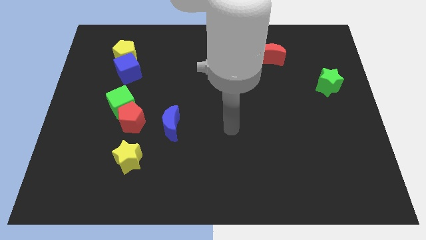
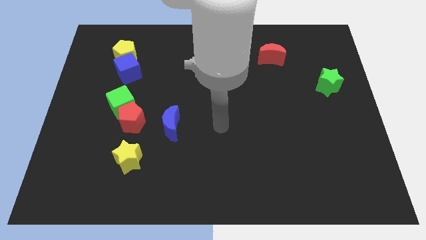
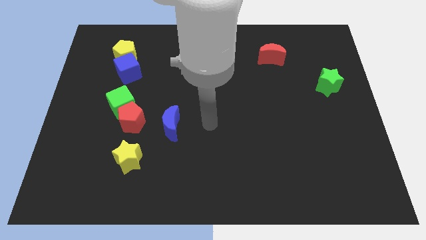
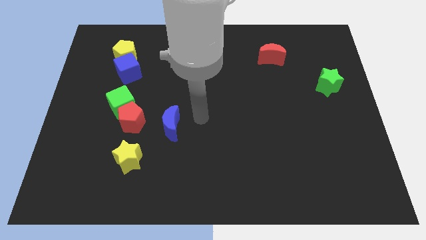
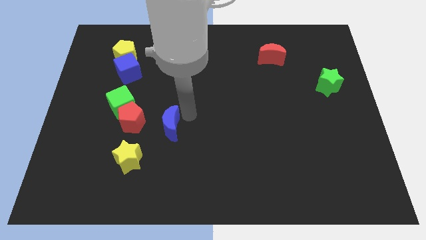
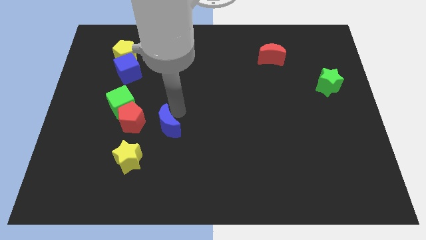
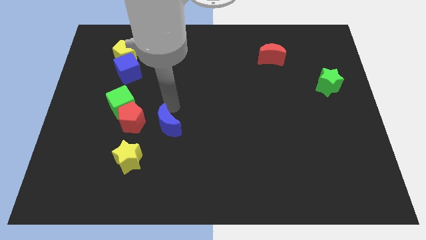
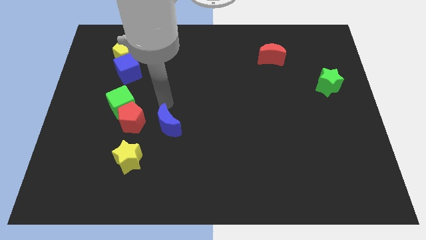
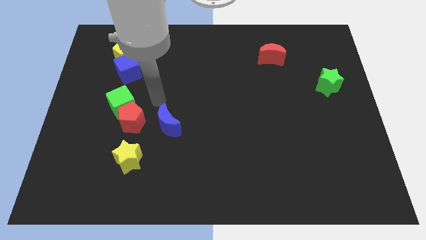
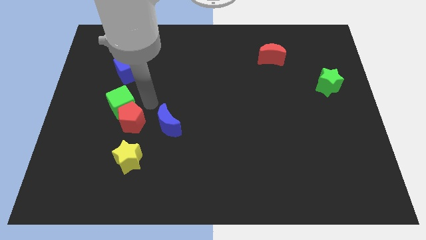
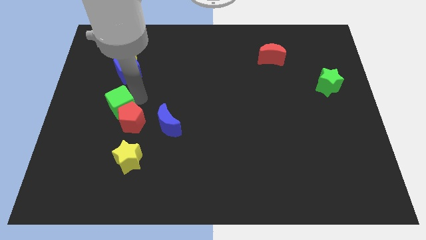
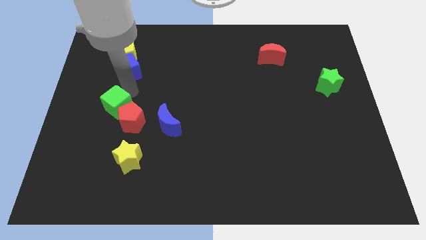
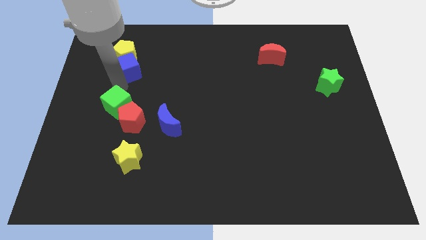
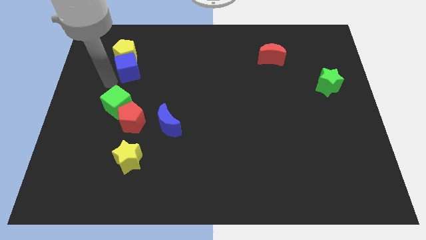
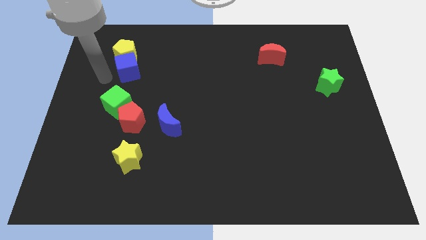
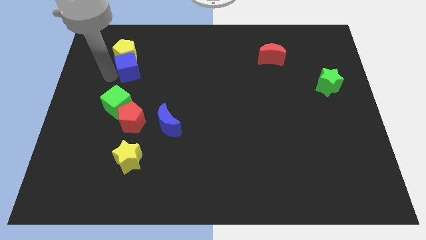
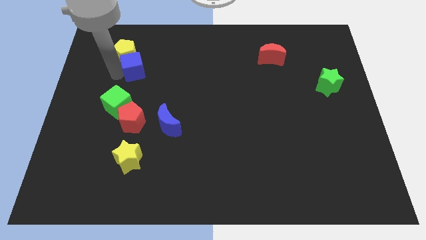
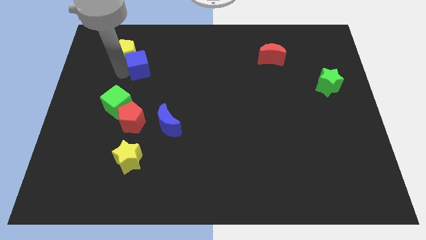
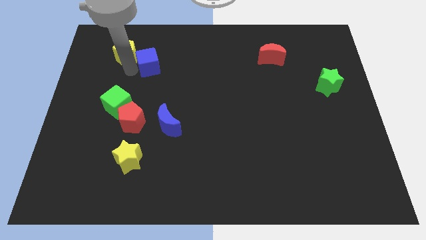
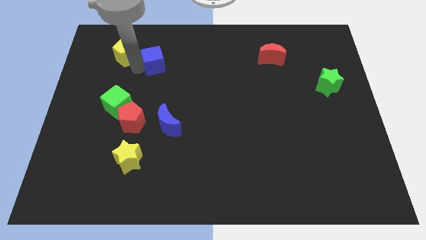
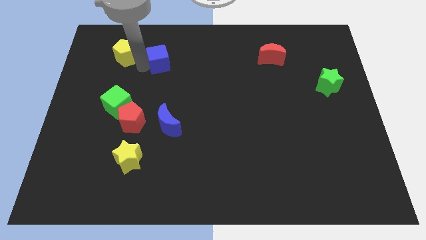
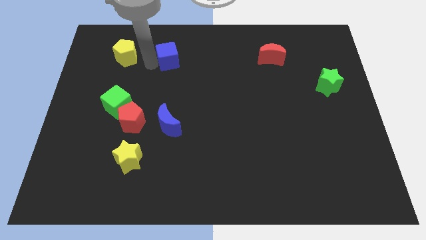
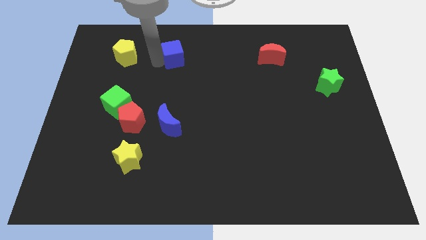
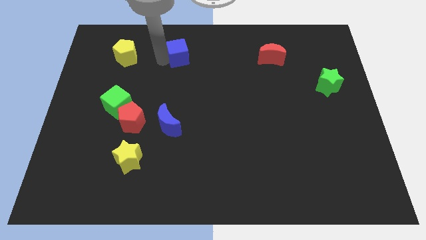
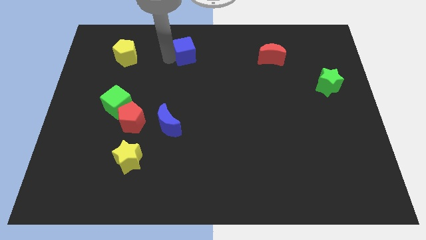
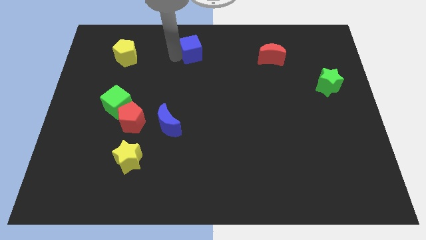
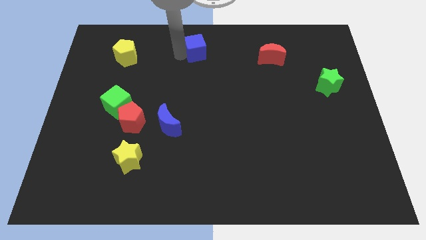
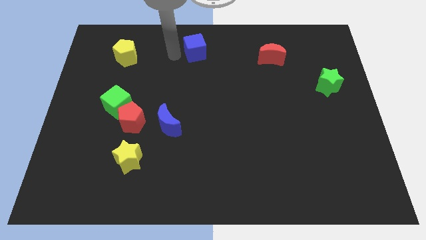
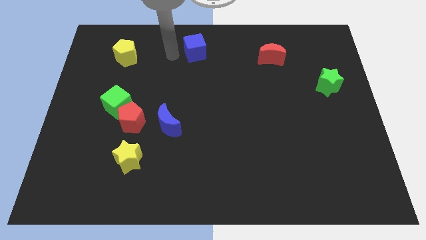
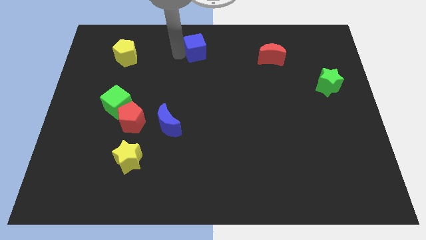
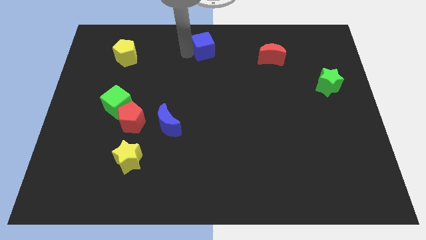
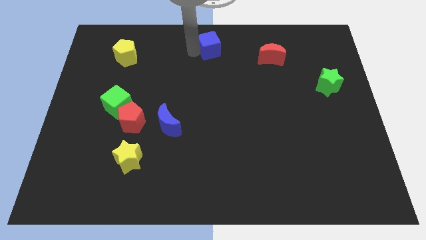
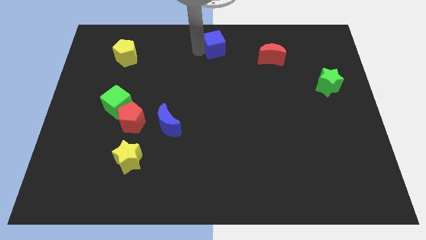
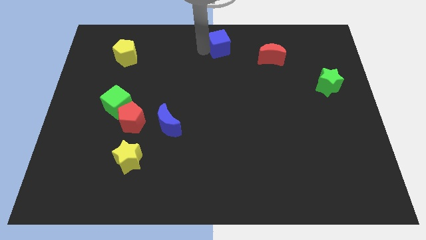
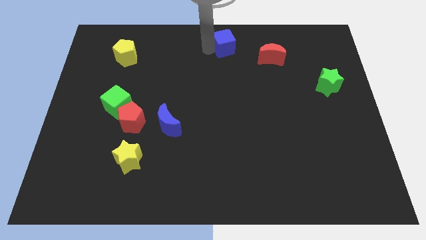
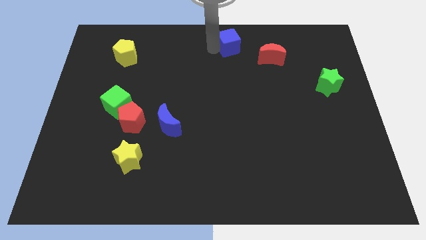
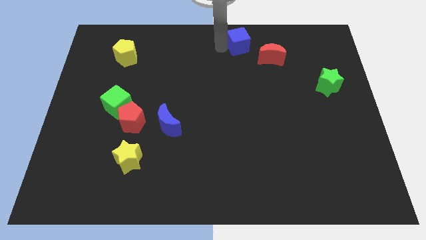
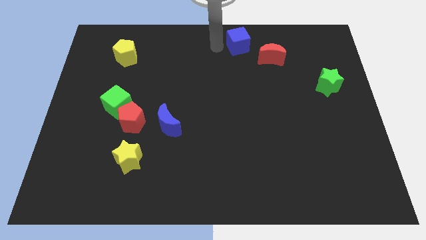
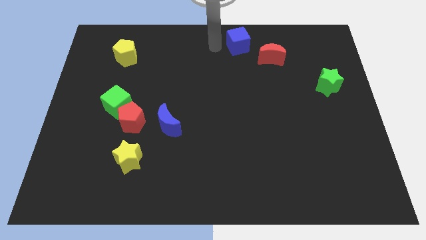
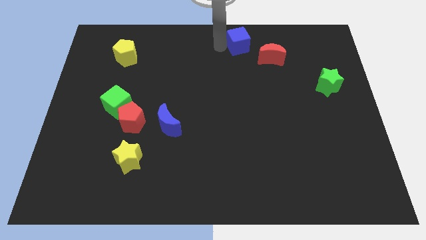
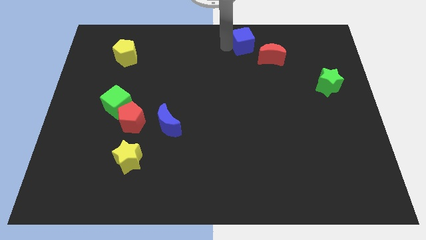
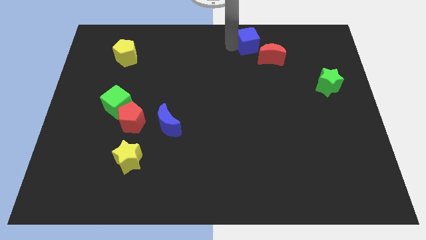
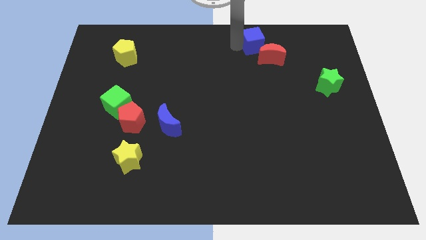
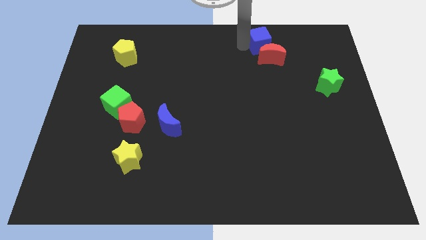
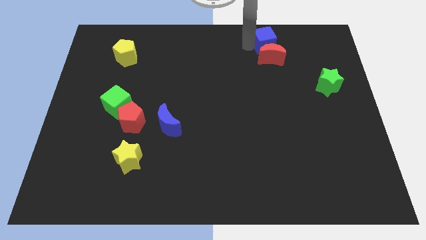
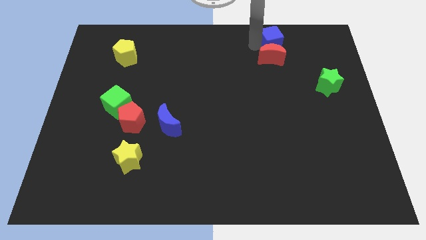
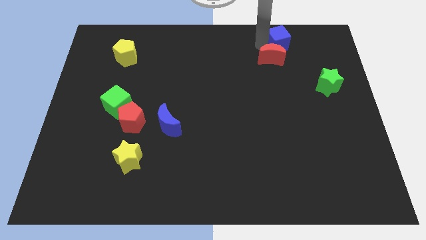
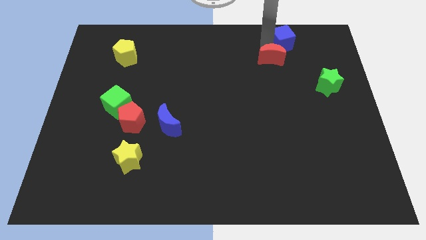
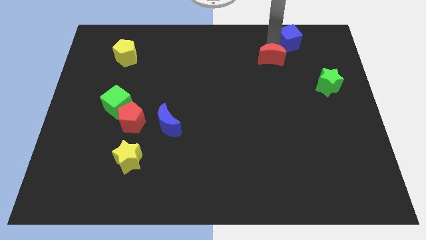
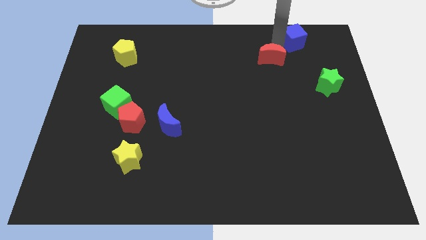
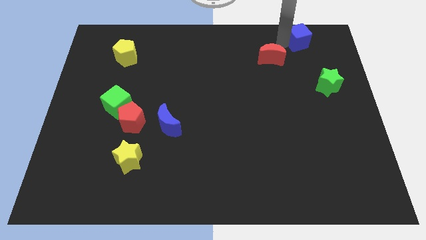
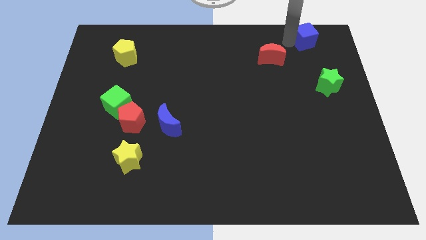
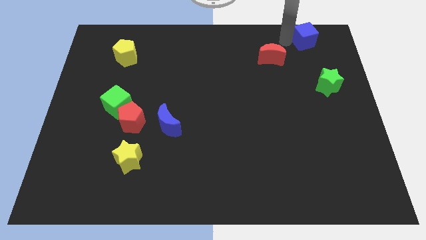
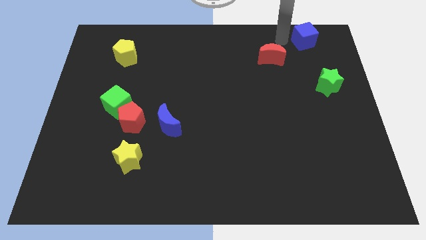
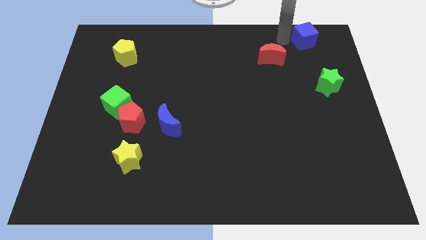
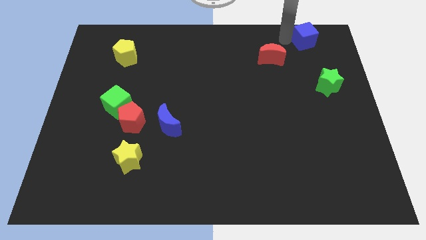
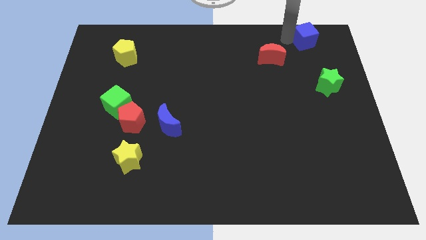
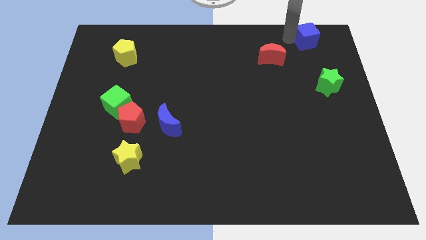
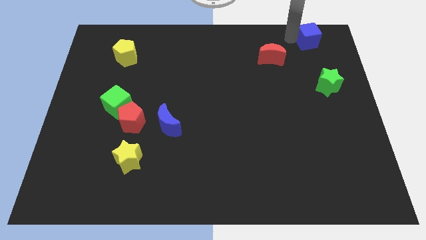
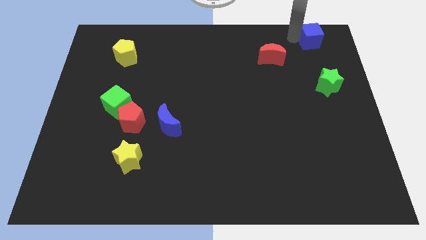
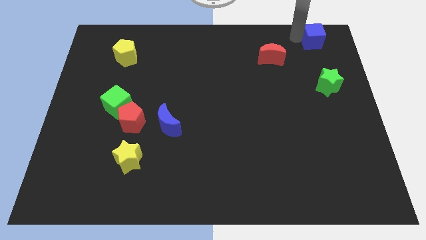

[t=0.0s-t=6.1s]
put the blue cube to the top right of the board
